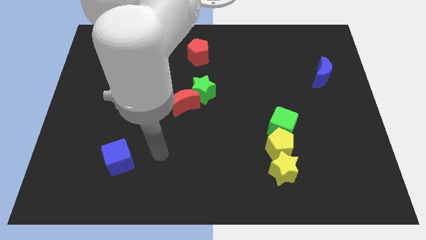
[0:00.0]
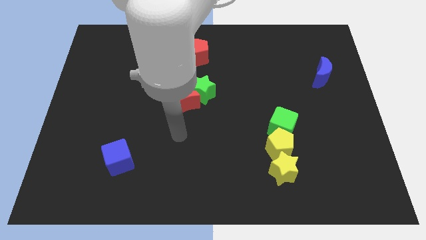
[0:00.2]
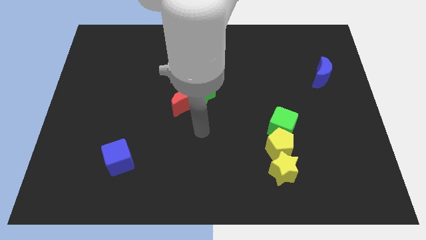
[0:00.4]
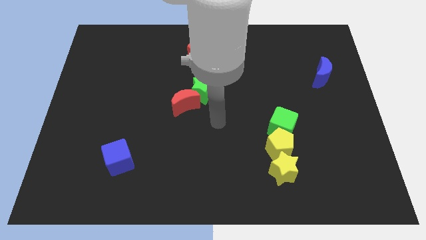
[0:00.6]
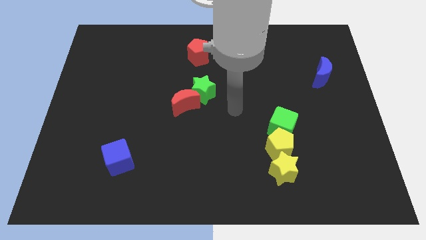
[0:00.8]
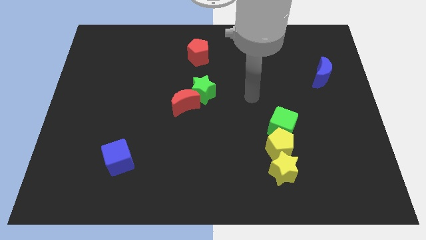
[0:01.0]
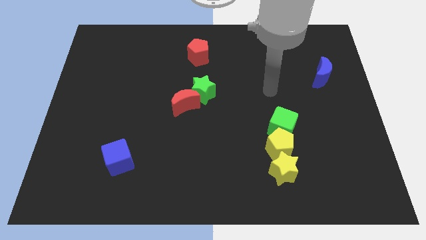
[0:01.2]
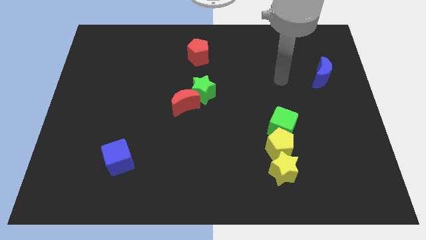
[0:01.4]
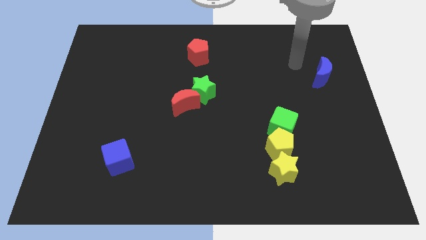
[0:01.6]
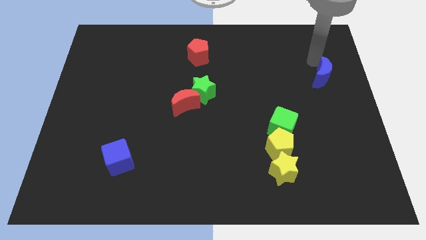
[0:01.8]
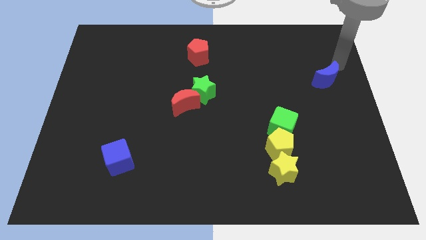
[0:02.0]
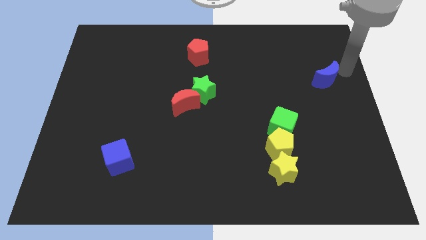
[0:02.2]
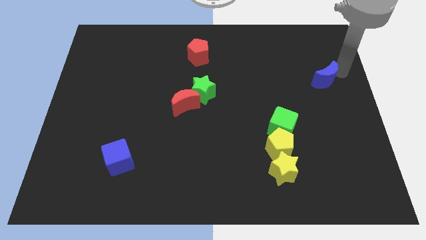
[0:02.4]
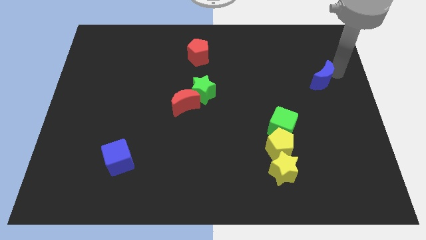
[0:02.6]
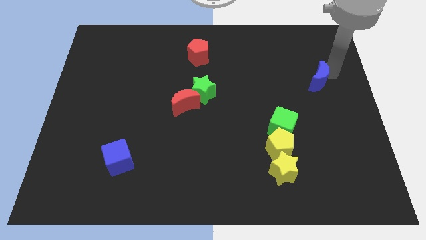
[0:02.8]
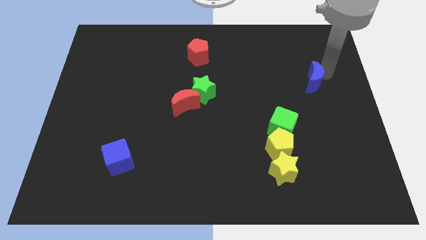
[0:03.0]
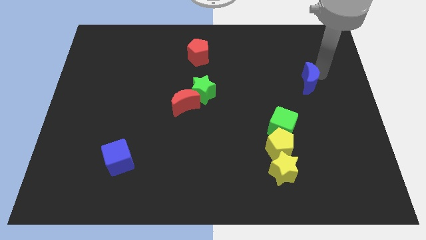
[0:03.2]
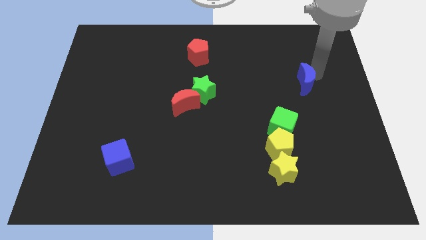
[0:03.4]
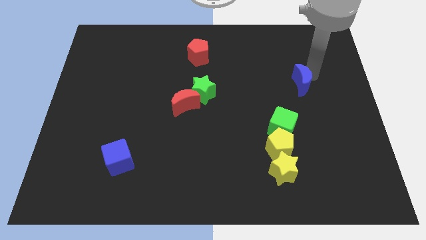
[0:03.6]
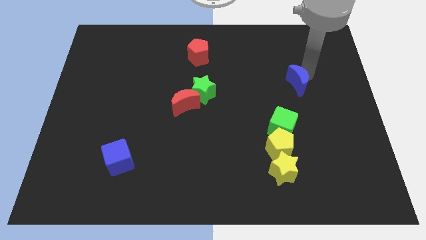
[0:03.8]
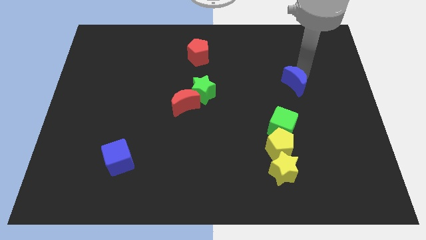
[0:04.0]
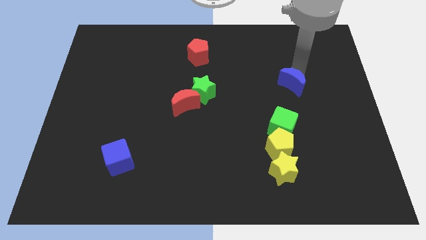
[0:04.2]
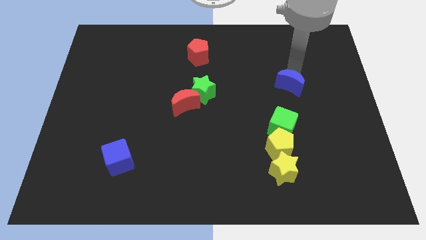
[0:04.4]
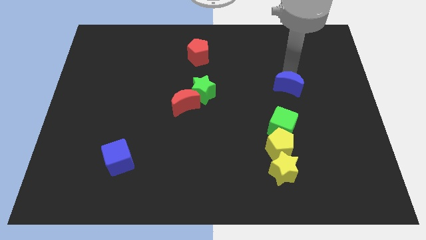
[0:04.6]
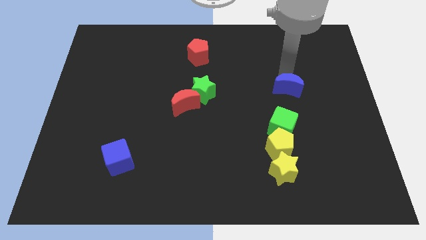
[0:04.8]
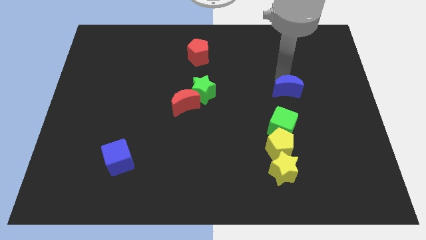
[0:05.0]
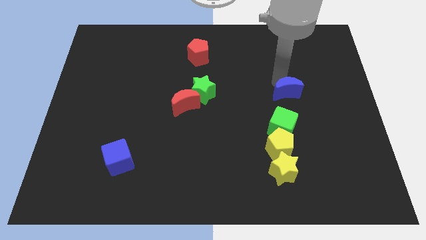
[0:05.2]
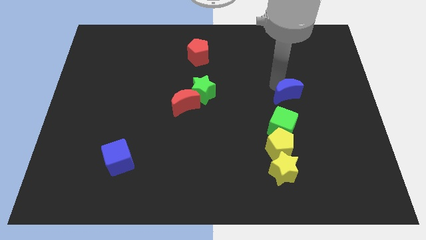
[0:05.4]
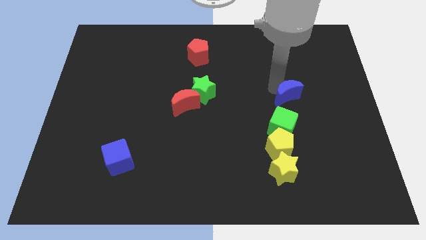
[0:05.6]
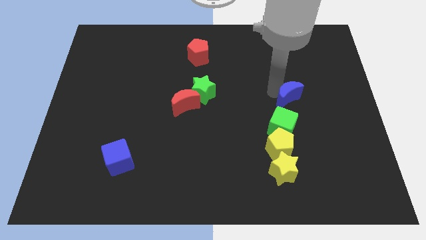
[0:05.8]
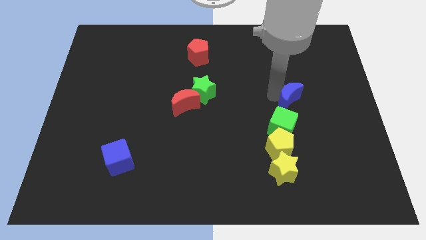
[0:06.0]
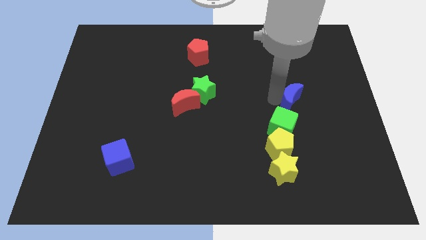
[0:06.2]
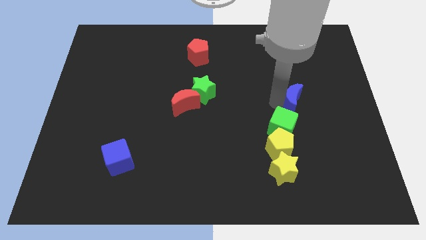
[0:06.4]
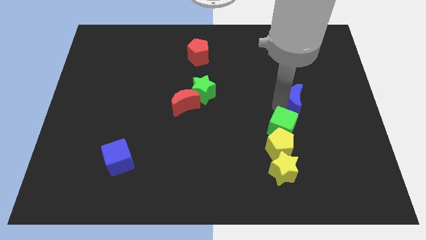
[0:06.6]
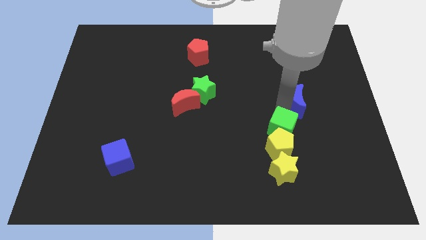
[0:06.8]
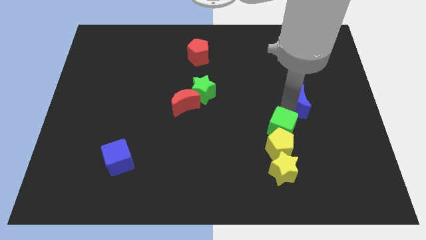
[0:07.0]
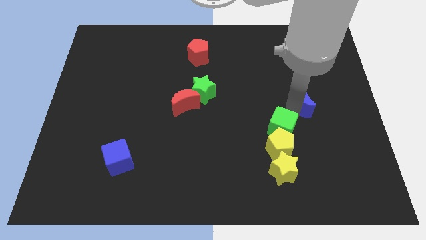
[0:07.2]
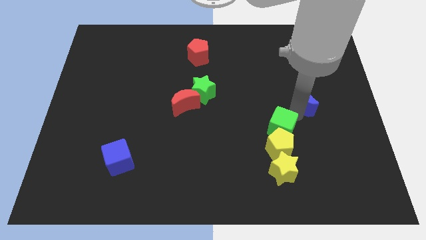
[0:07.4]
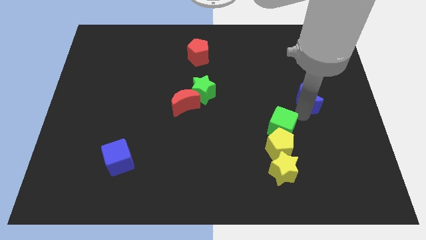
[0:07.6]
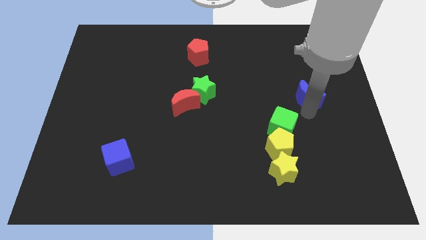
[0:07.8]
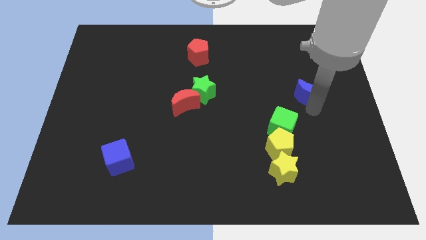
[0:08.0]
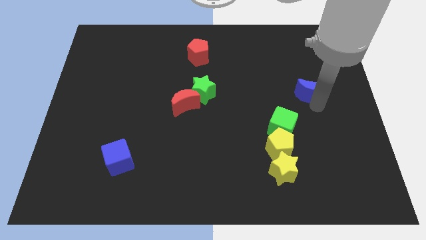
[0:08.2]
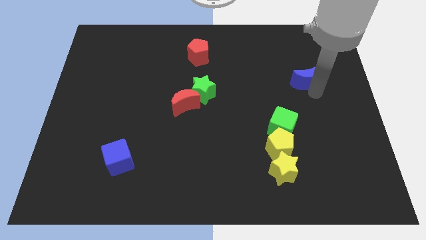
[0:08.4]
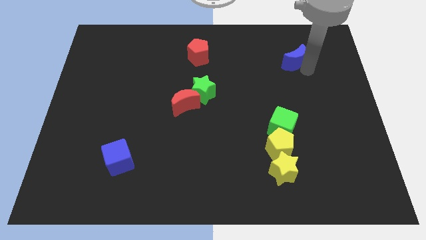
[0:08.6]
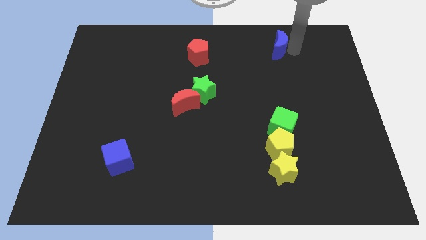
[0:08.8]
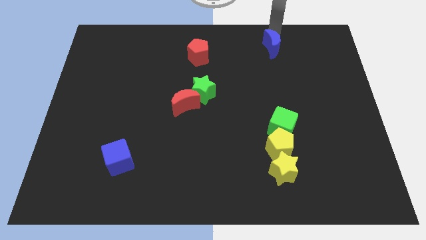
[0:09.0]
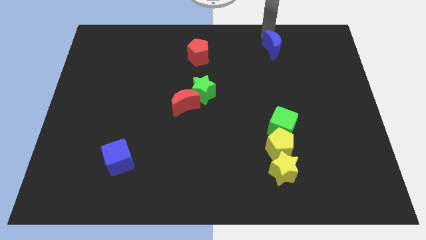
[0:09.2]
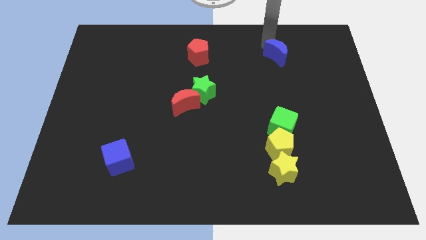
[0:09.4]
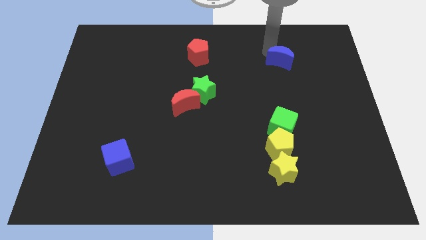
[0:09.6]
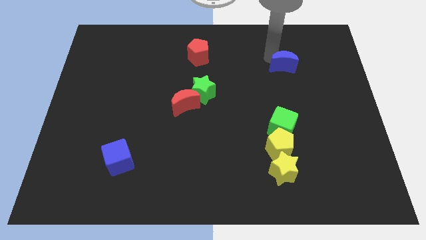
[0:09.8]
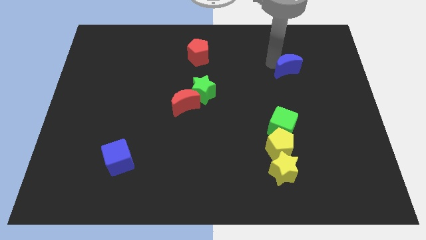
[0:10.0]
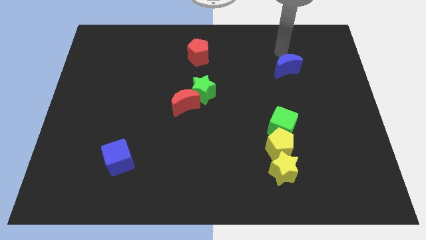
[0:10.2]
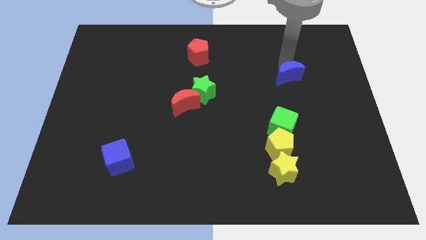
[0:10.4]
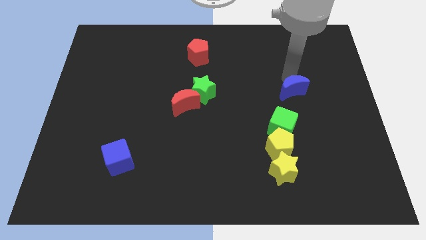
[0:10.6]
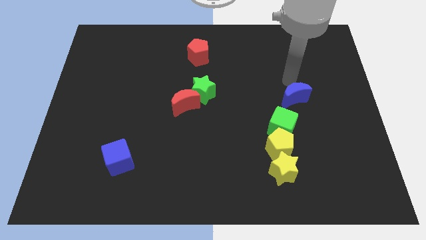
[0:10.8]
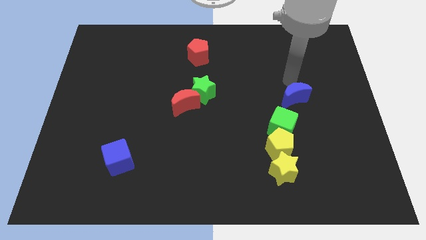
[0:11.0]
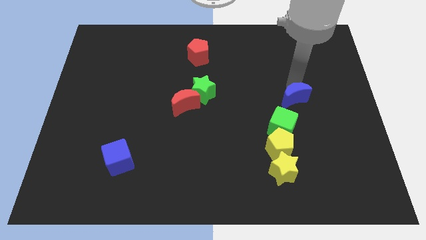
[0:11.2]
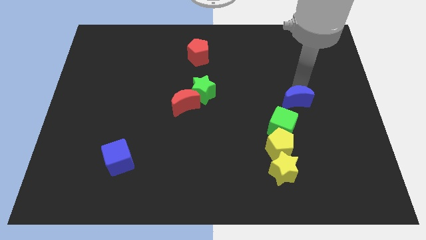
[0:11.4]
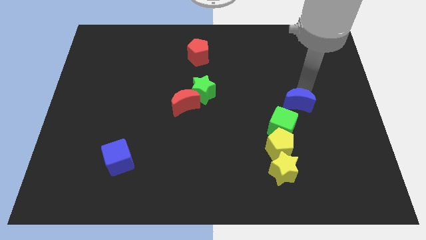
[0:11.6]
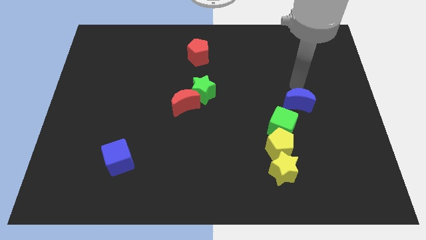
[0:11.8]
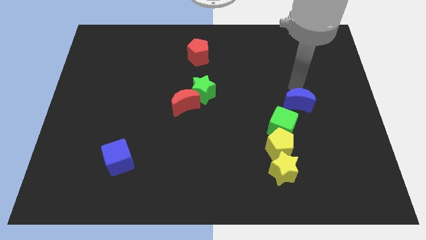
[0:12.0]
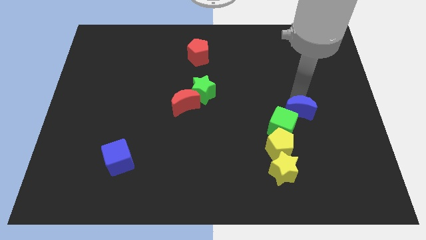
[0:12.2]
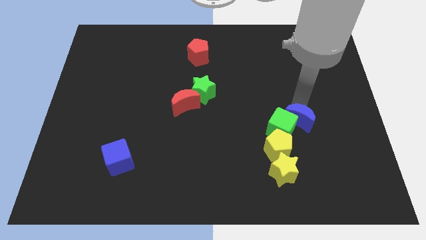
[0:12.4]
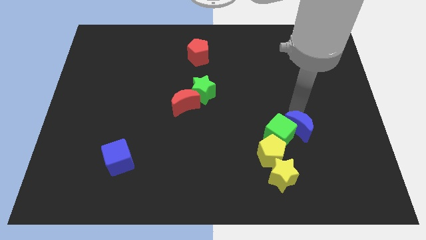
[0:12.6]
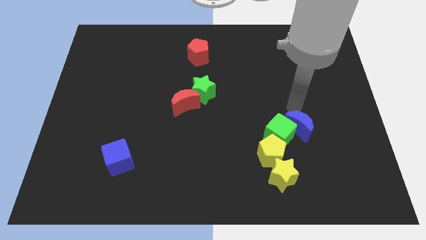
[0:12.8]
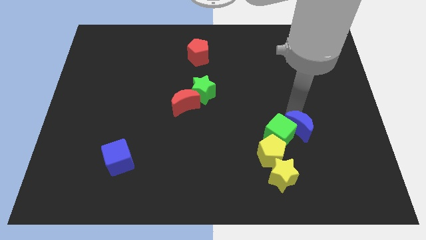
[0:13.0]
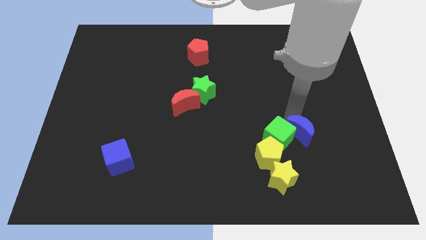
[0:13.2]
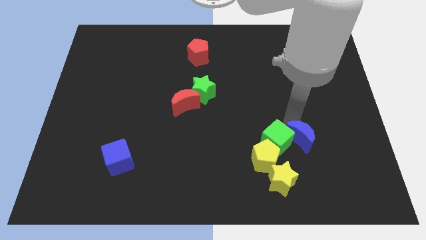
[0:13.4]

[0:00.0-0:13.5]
push the blue moon to the top right side of the yellow star

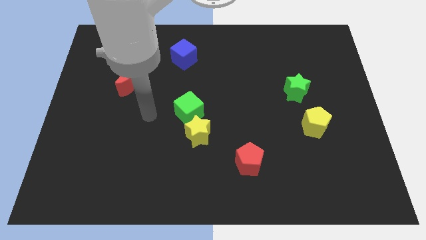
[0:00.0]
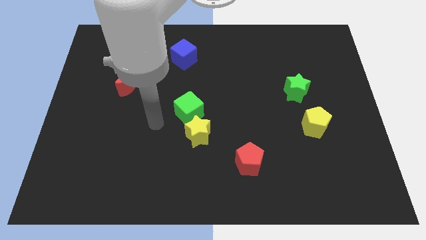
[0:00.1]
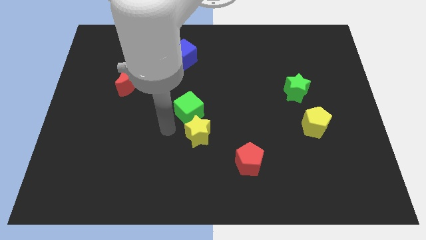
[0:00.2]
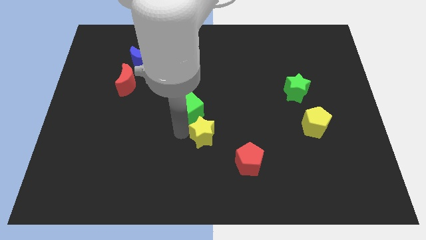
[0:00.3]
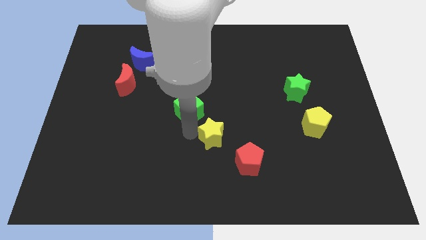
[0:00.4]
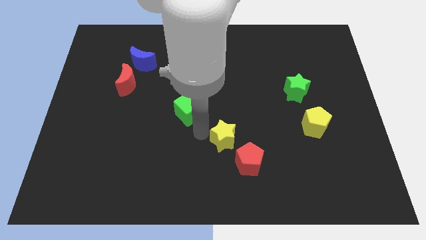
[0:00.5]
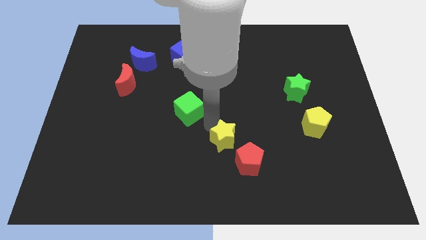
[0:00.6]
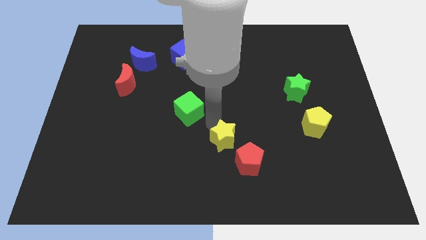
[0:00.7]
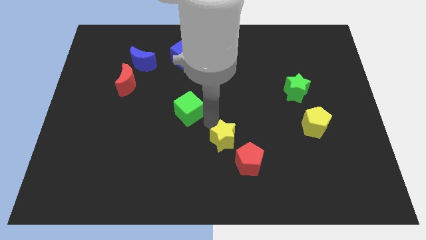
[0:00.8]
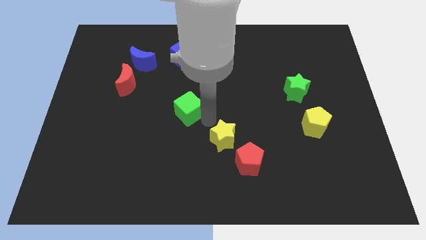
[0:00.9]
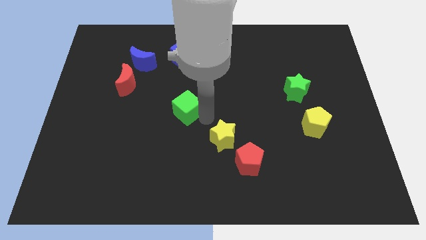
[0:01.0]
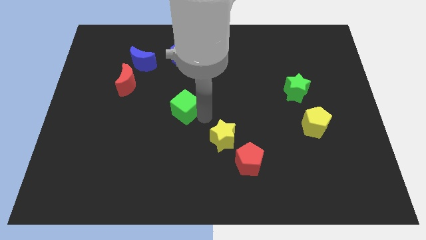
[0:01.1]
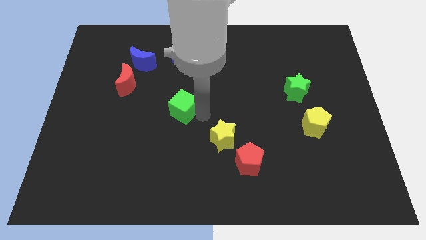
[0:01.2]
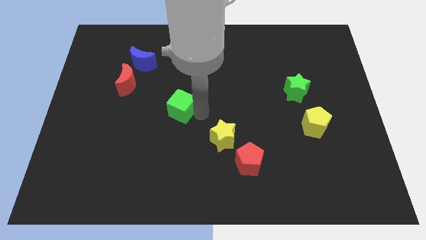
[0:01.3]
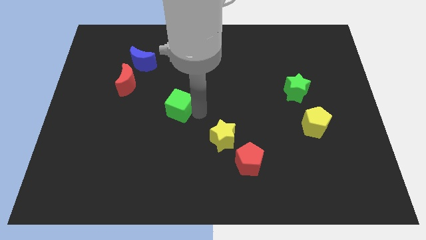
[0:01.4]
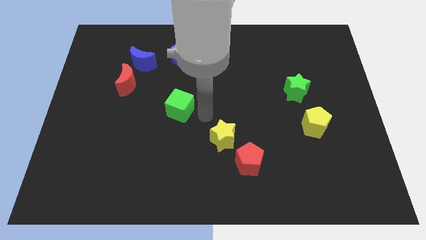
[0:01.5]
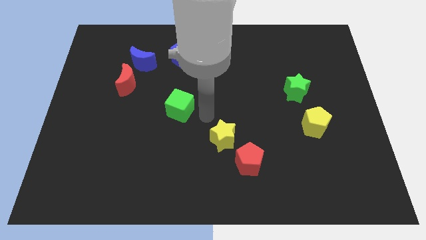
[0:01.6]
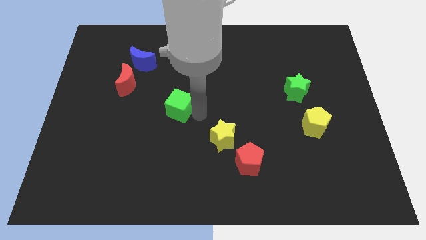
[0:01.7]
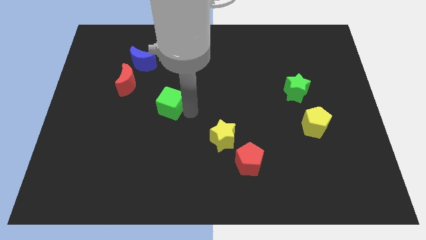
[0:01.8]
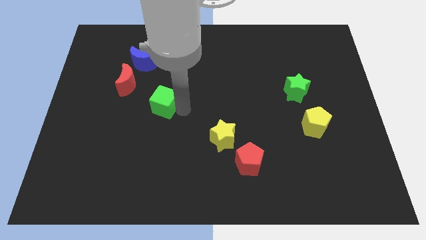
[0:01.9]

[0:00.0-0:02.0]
push the green cube to the bottom right side of the red moon
